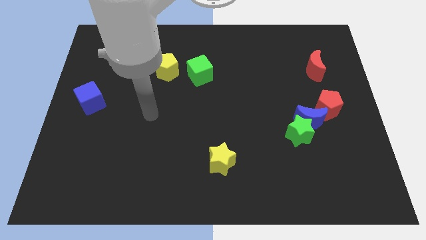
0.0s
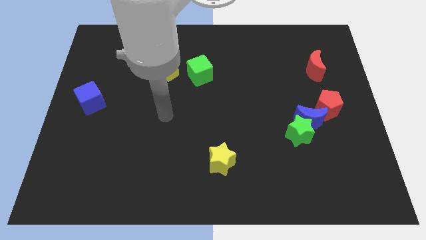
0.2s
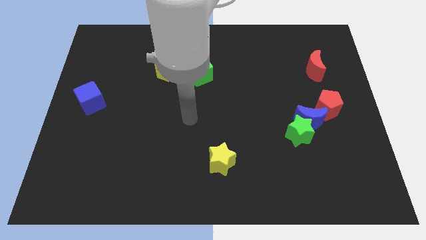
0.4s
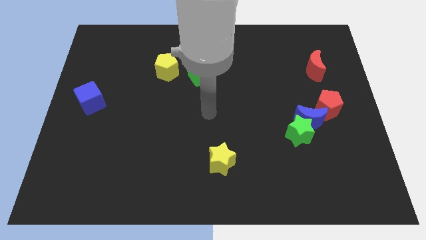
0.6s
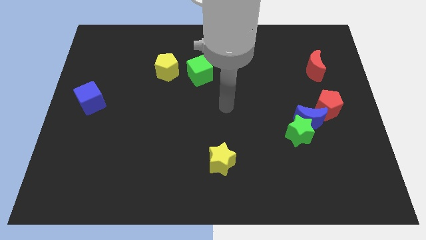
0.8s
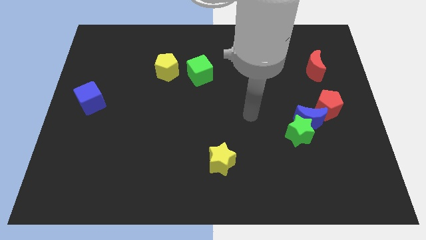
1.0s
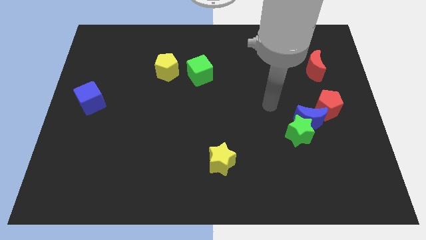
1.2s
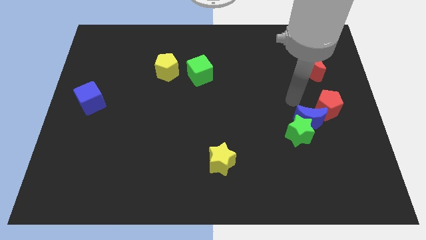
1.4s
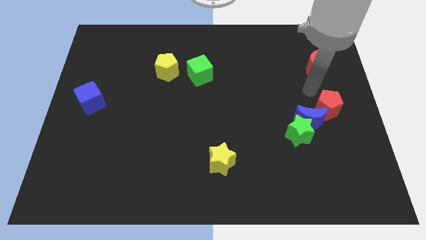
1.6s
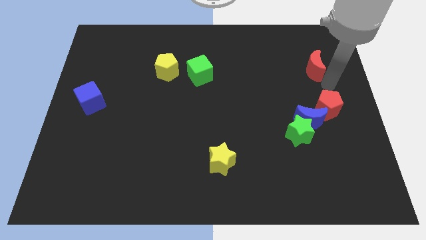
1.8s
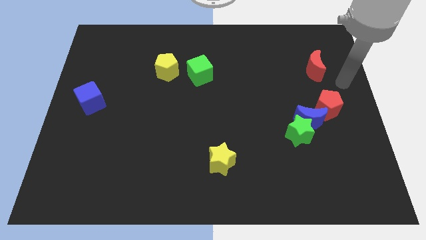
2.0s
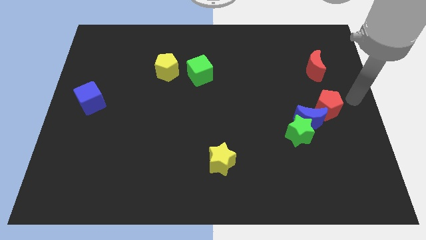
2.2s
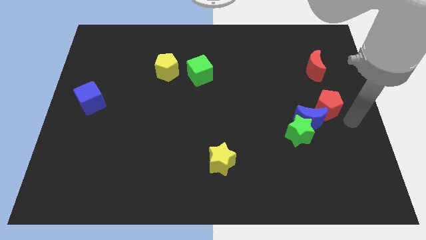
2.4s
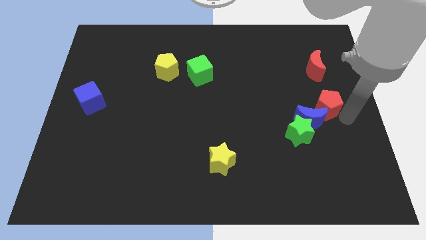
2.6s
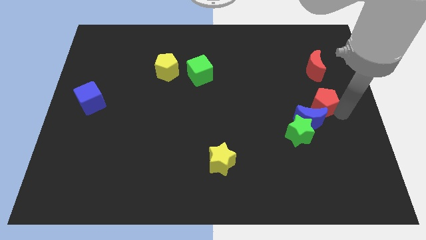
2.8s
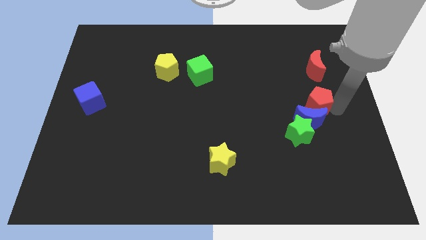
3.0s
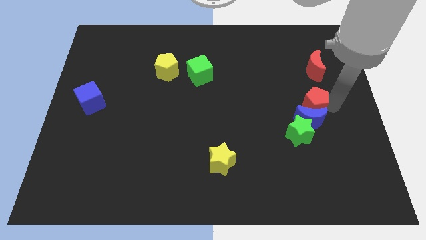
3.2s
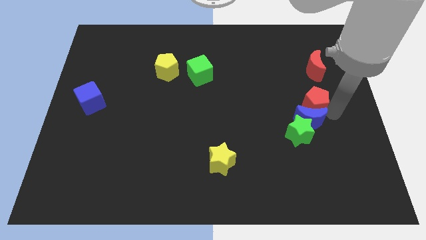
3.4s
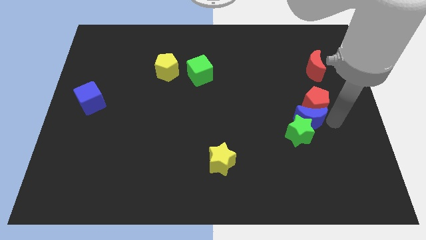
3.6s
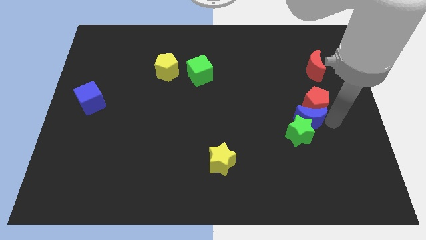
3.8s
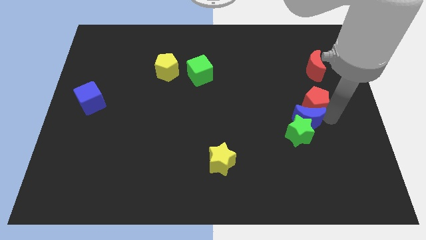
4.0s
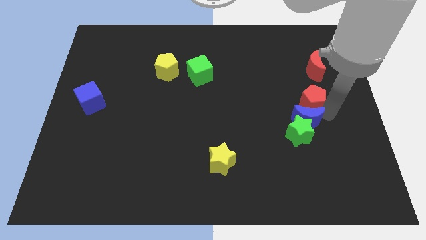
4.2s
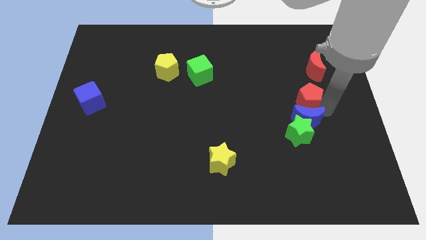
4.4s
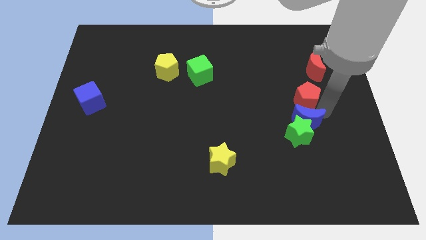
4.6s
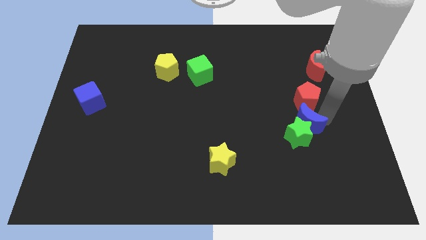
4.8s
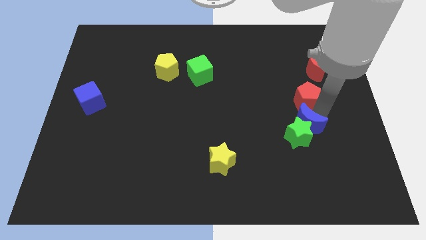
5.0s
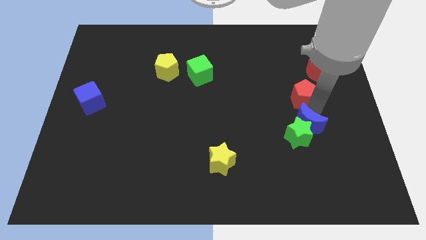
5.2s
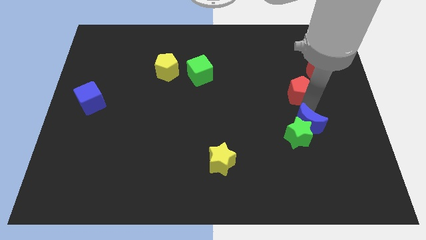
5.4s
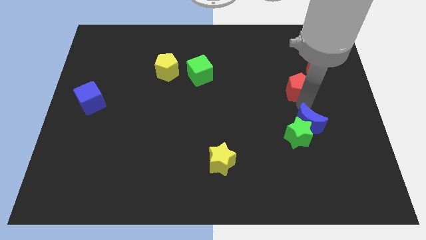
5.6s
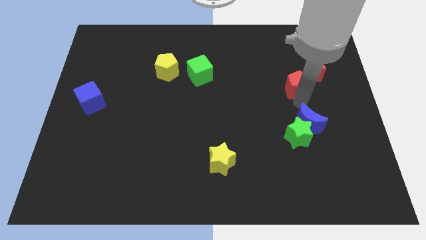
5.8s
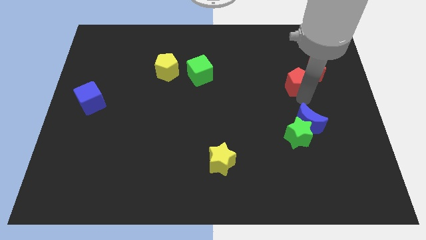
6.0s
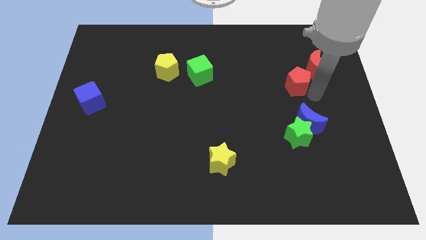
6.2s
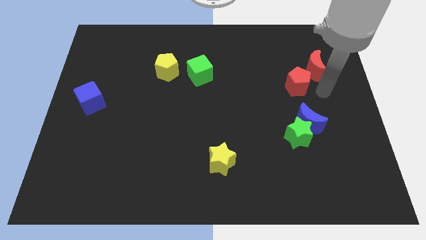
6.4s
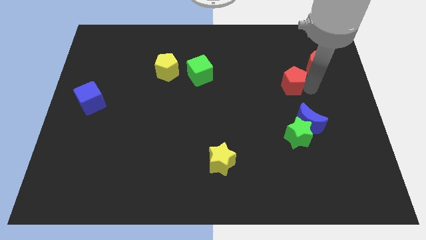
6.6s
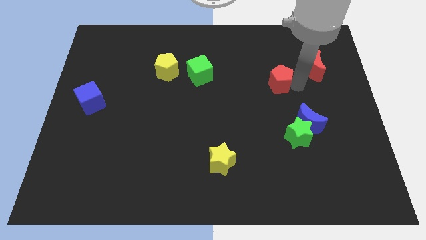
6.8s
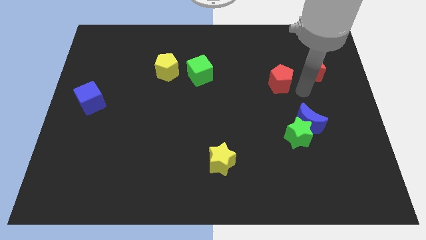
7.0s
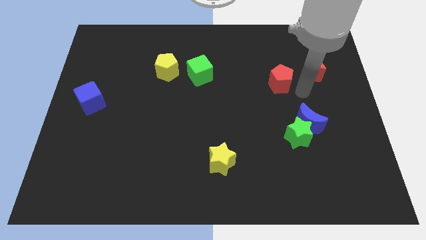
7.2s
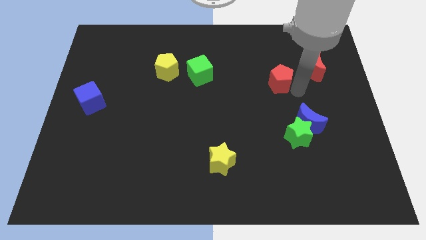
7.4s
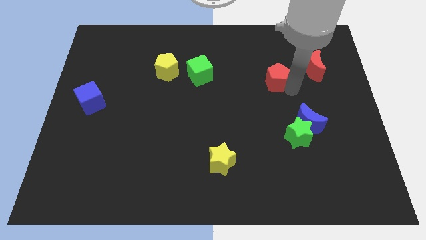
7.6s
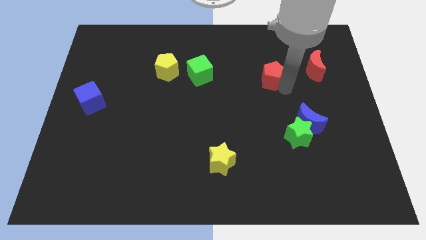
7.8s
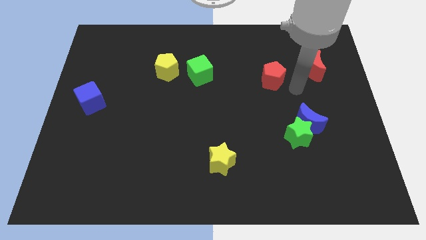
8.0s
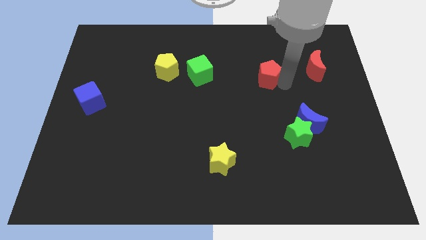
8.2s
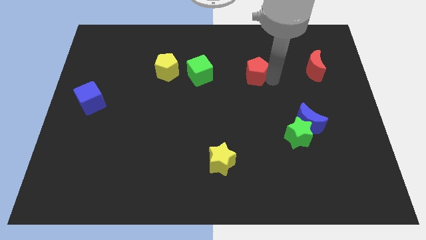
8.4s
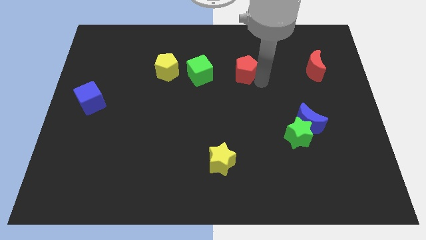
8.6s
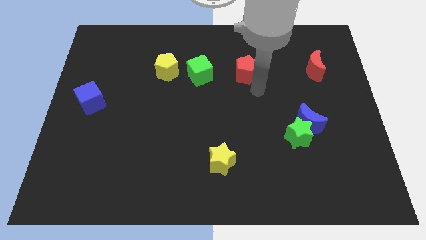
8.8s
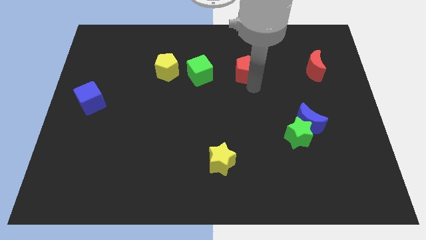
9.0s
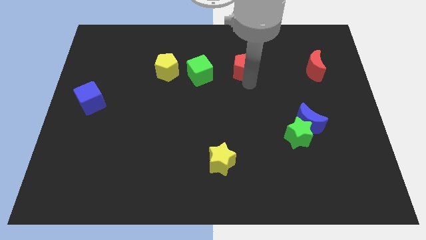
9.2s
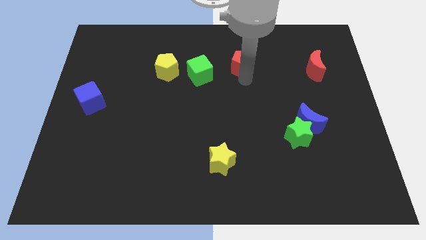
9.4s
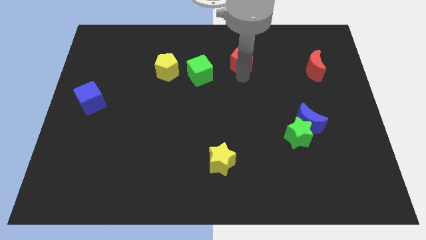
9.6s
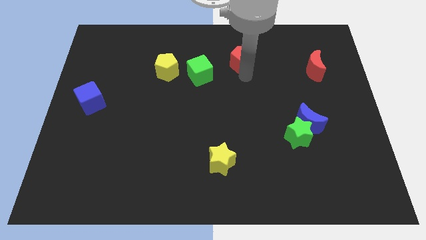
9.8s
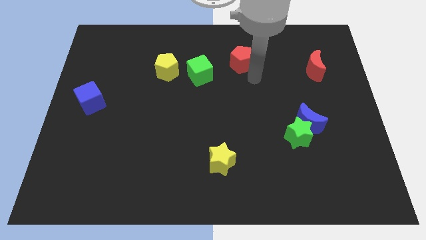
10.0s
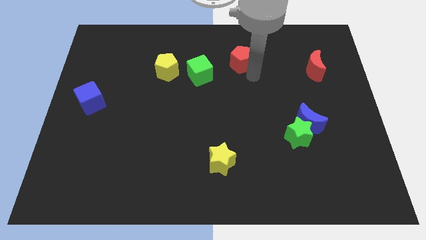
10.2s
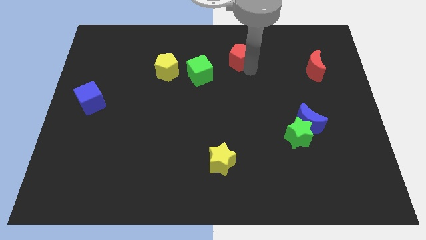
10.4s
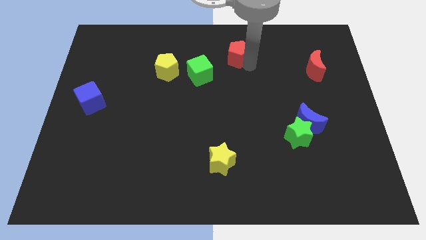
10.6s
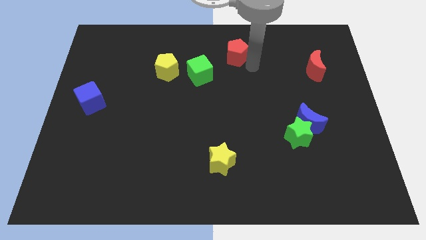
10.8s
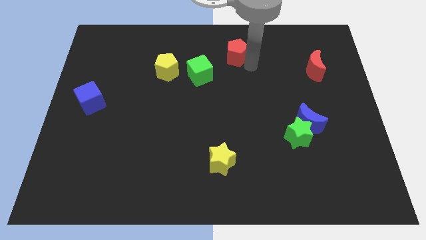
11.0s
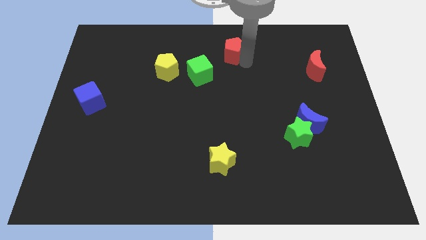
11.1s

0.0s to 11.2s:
move the red pentagon to the top side

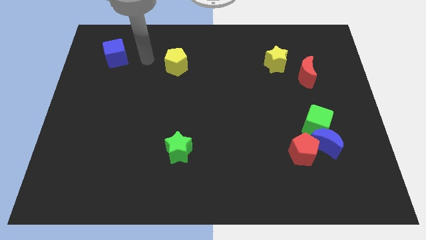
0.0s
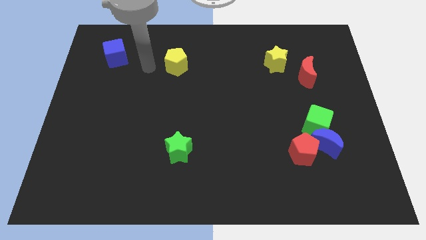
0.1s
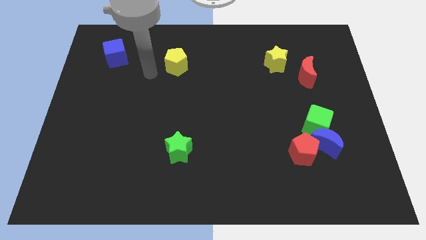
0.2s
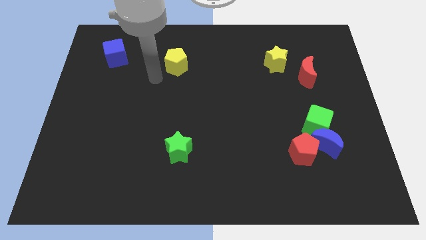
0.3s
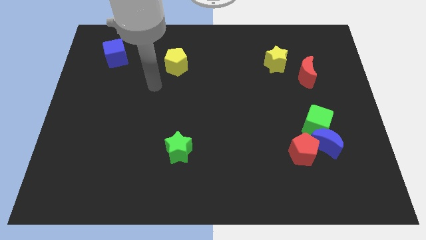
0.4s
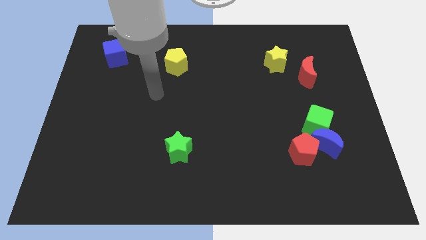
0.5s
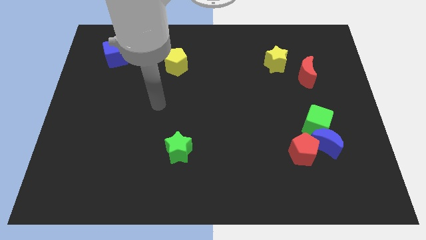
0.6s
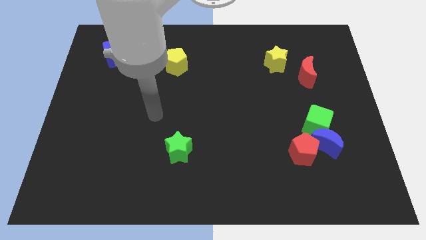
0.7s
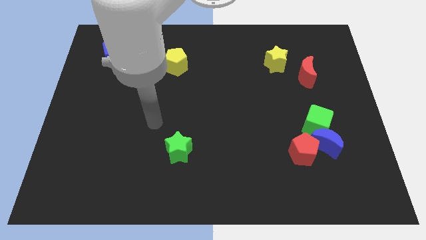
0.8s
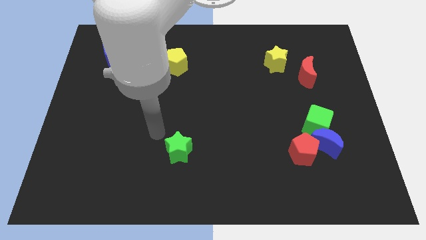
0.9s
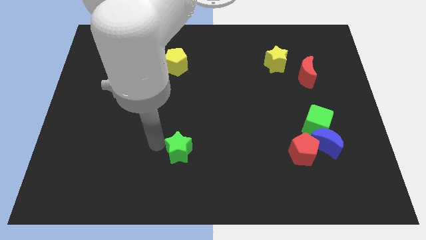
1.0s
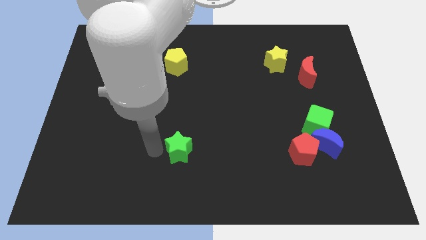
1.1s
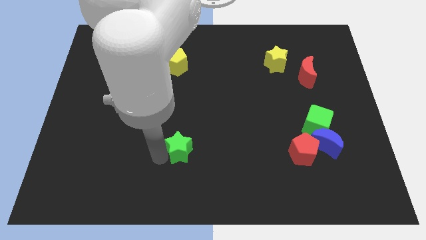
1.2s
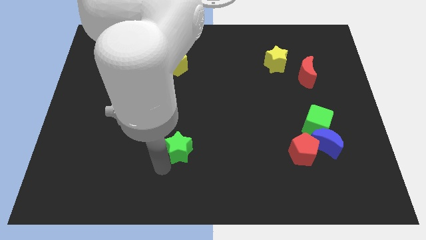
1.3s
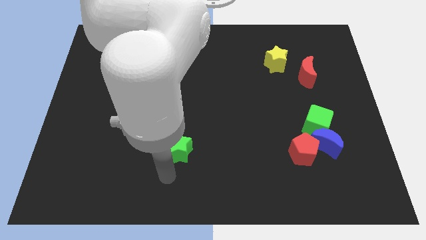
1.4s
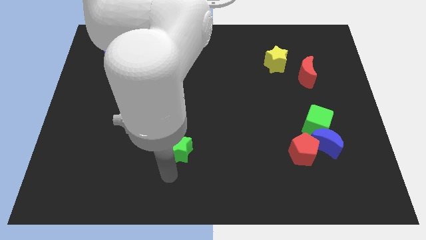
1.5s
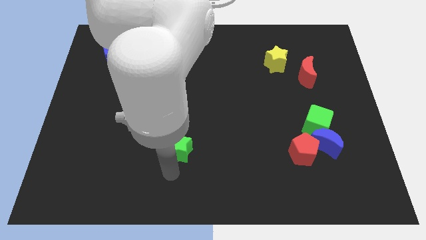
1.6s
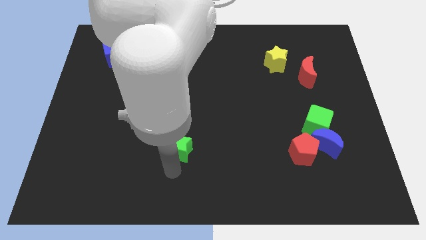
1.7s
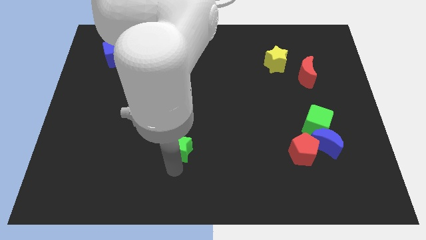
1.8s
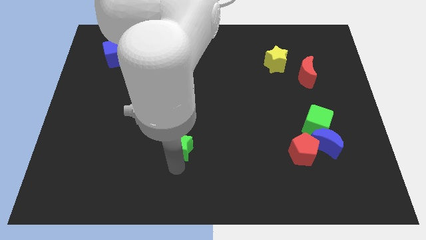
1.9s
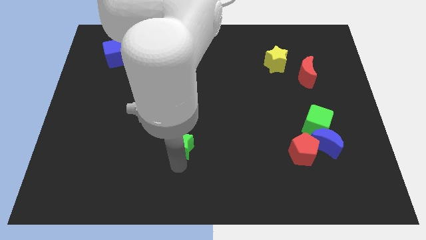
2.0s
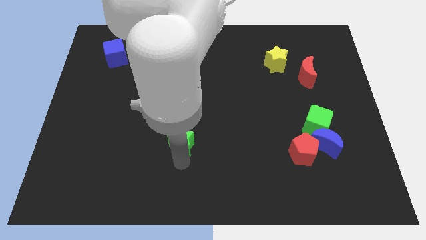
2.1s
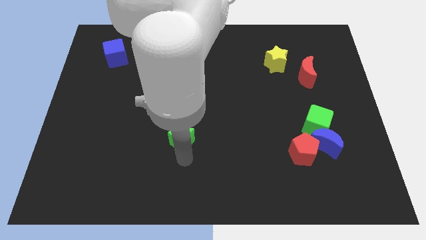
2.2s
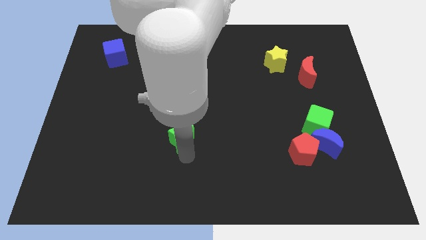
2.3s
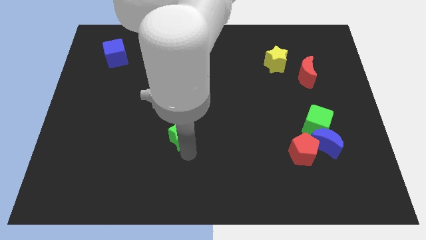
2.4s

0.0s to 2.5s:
slide the green star to the middle
